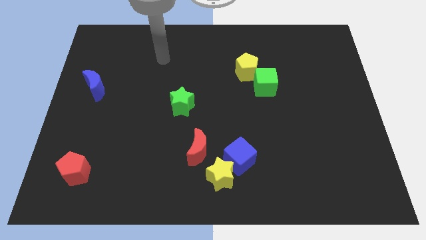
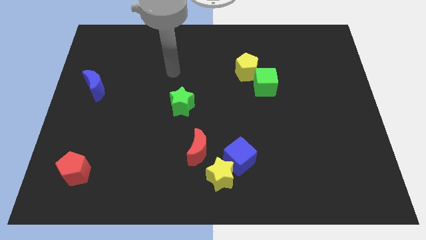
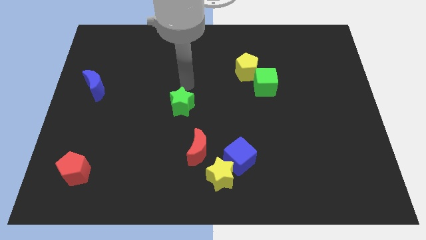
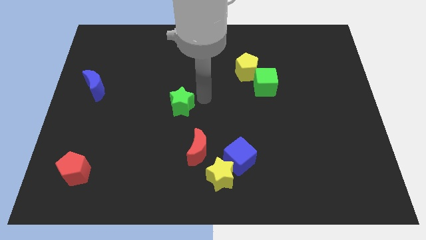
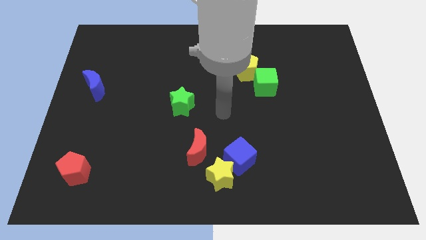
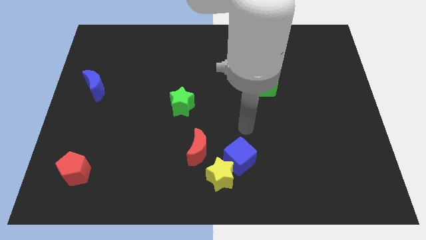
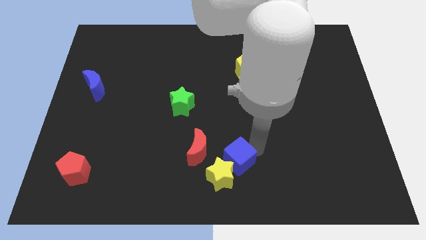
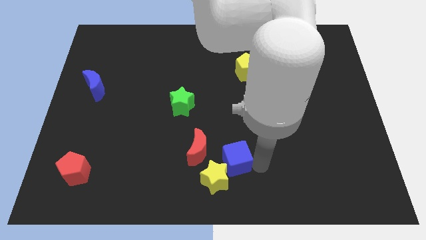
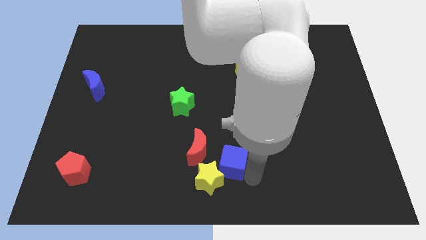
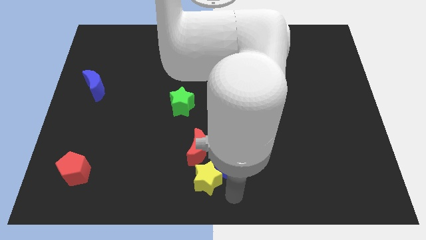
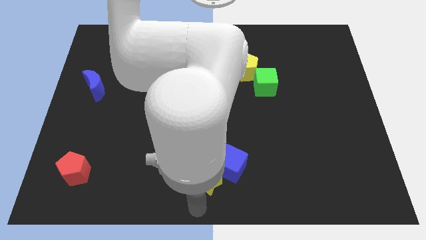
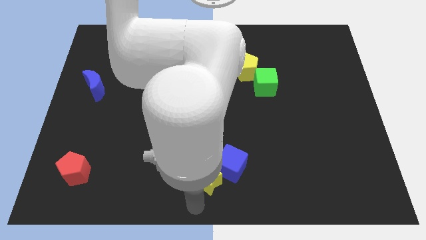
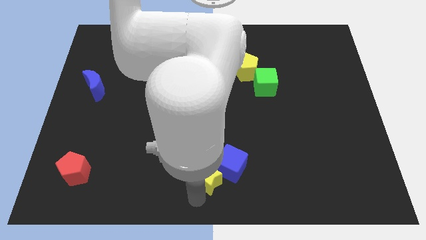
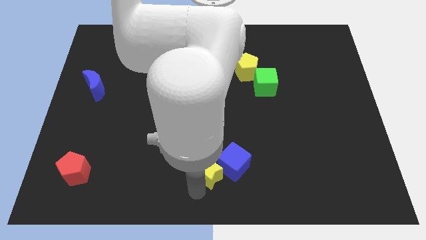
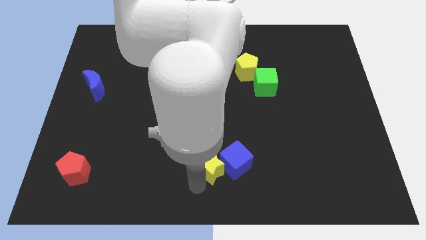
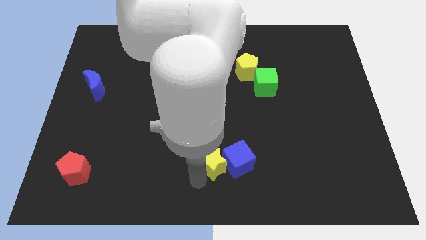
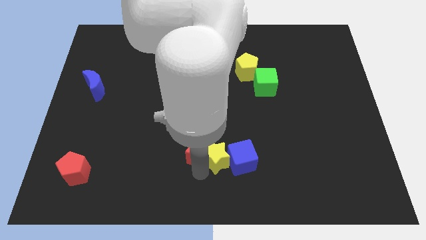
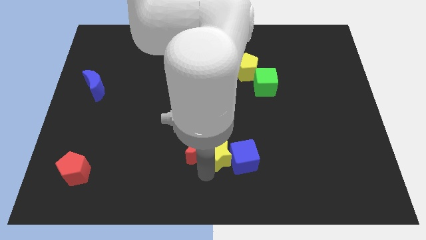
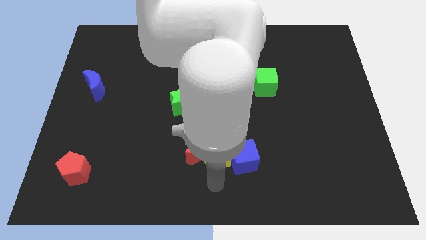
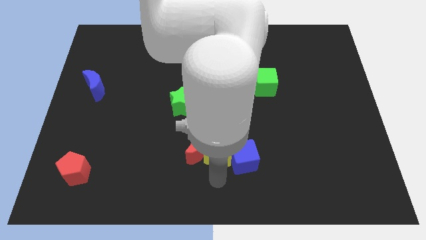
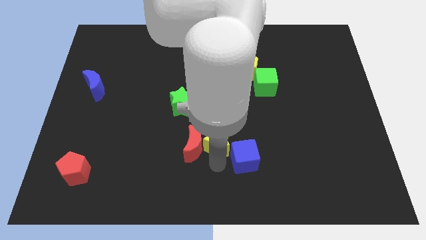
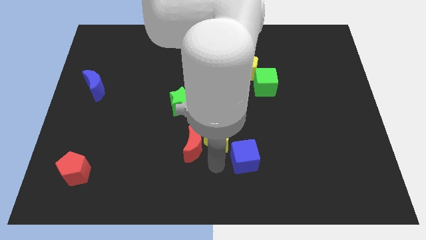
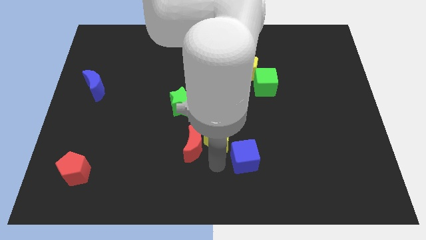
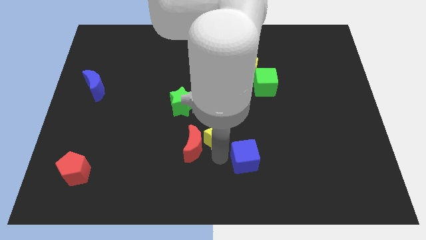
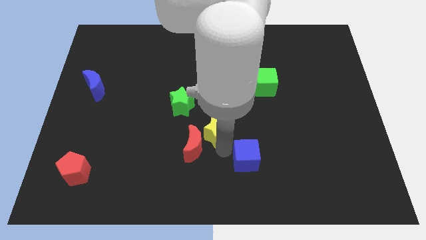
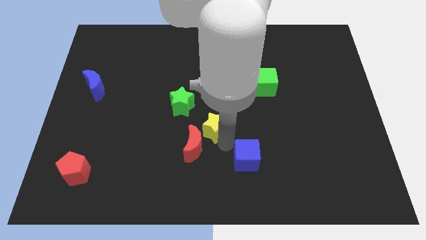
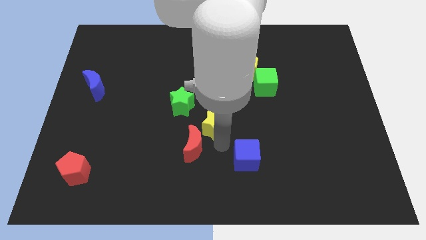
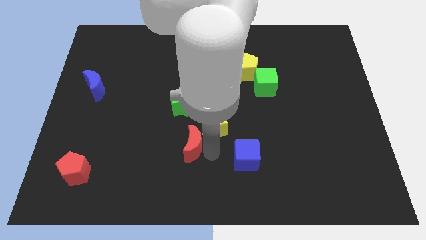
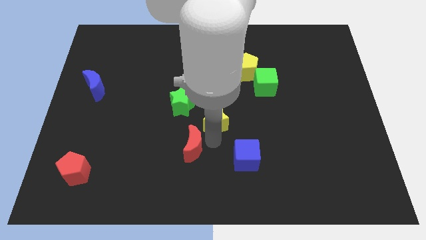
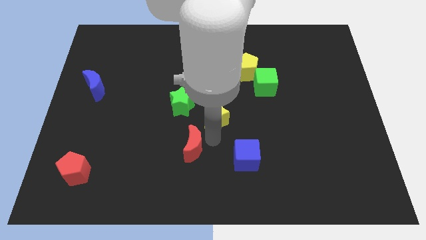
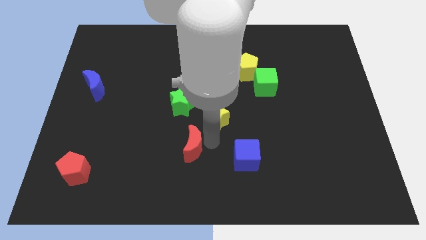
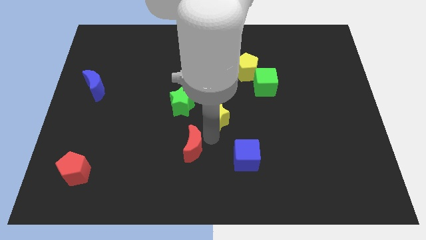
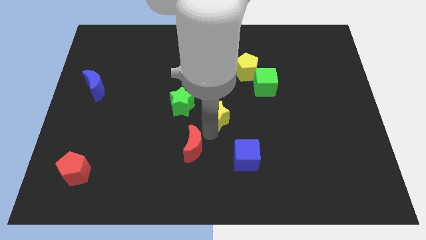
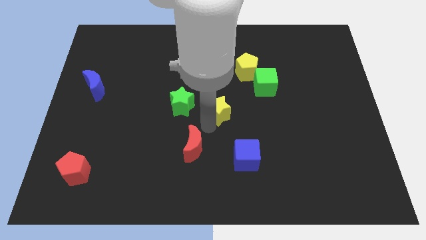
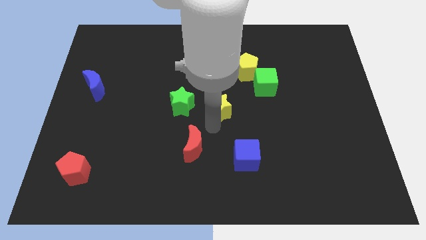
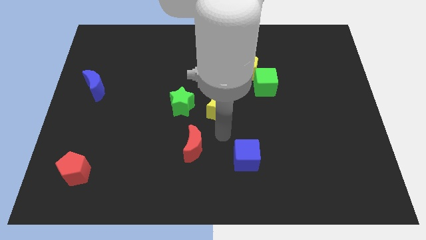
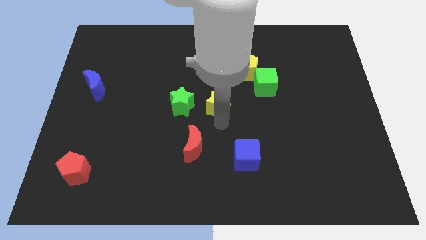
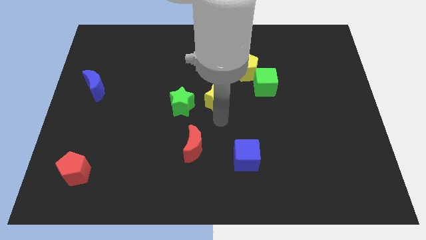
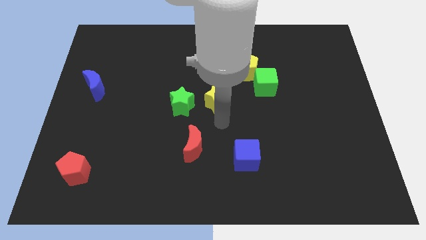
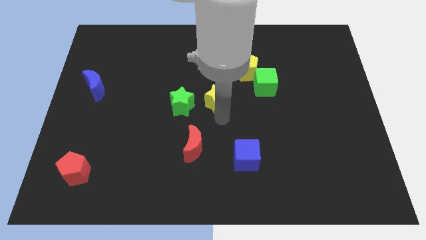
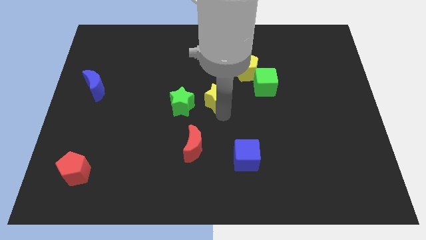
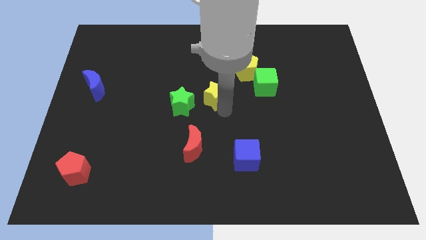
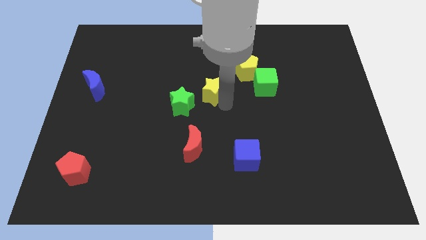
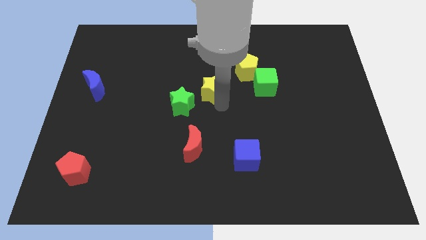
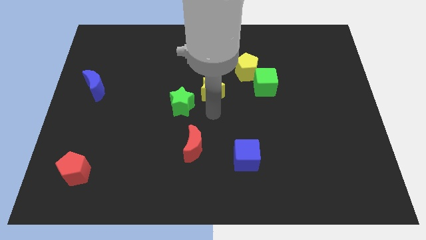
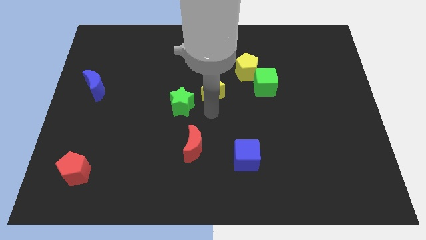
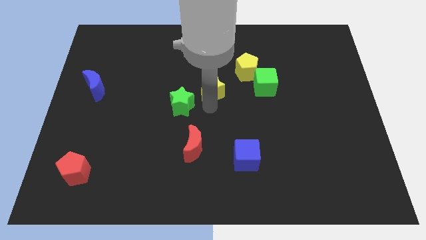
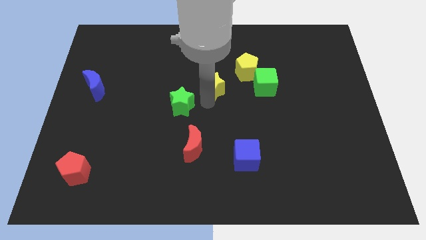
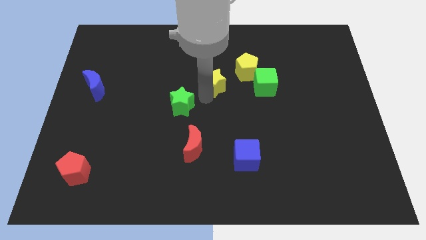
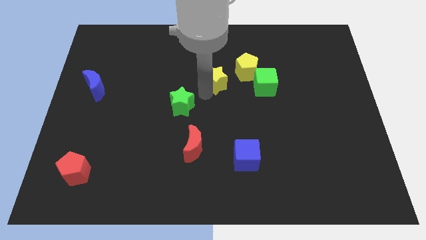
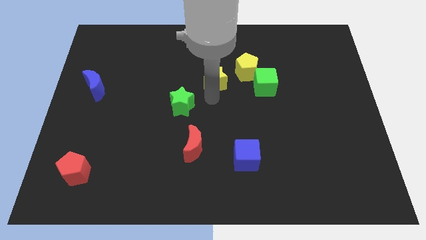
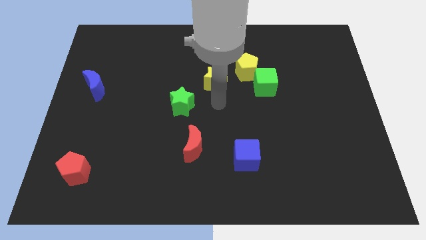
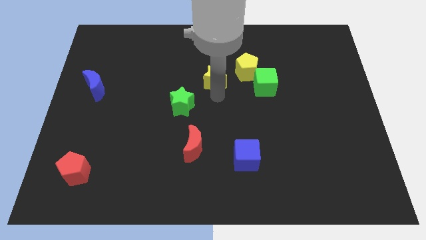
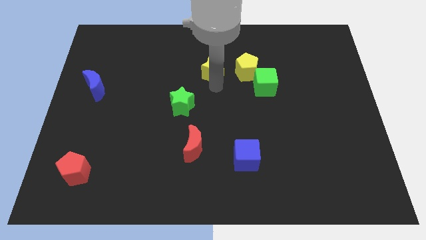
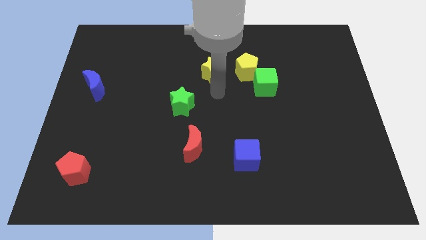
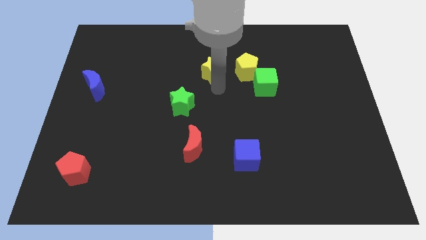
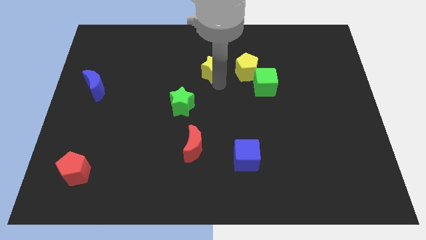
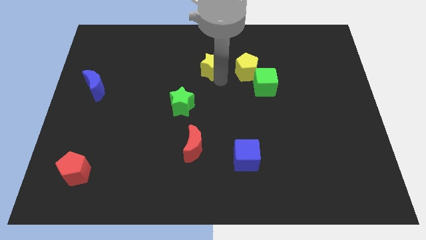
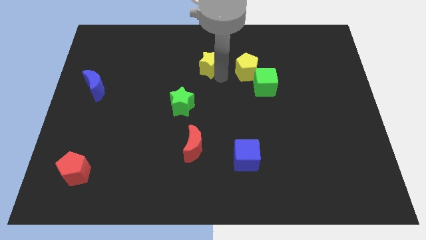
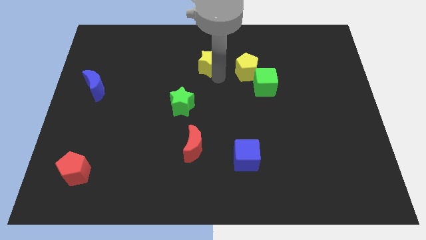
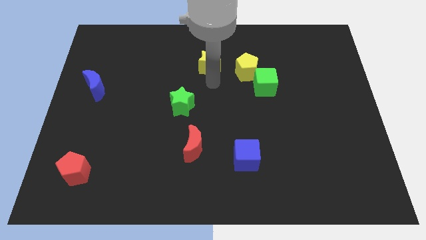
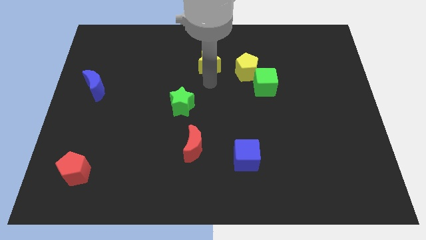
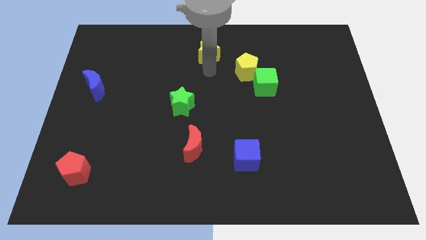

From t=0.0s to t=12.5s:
push the yellow star to the towards your base

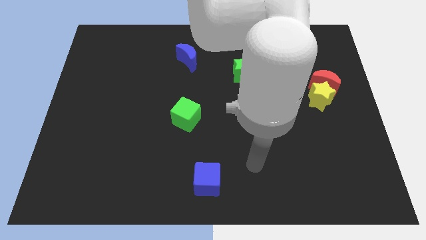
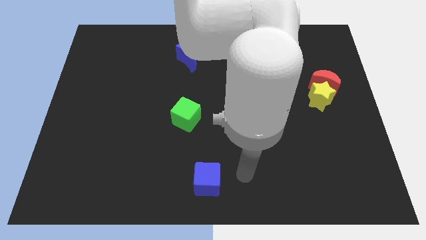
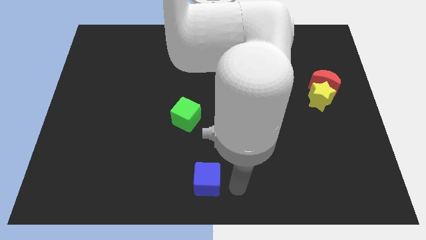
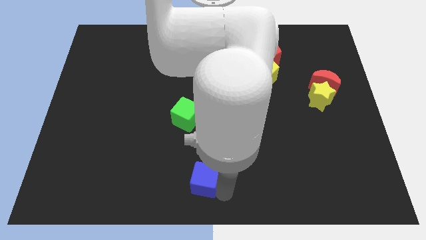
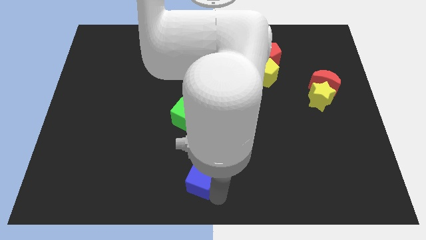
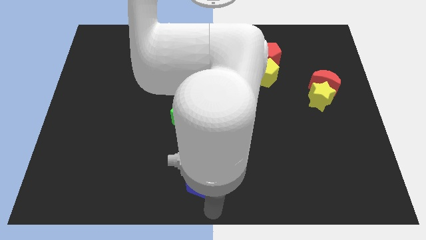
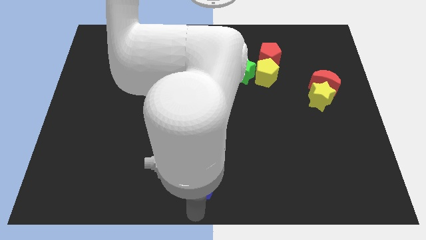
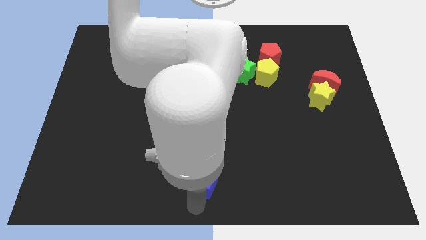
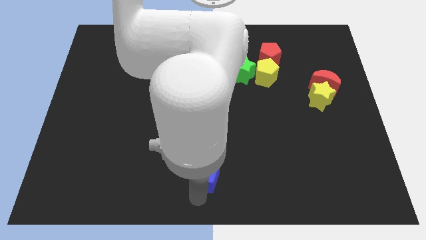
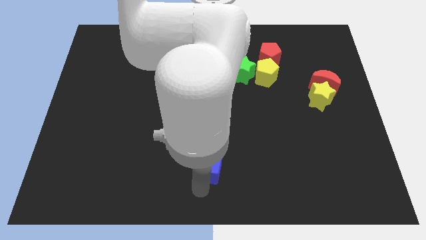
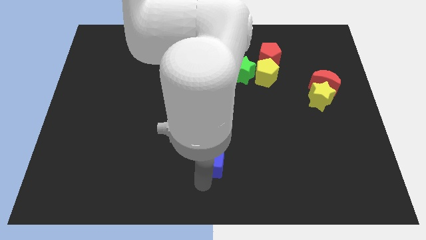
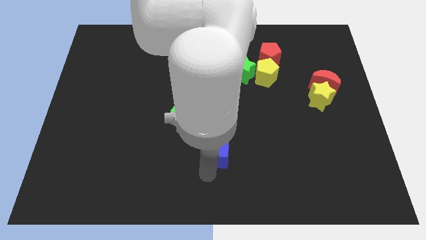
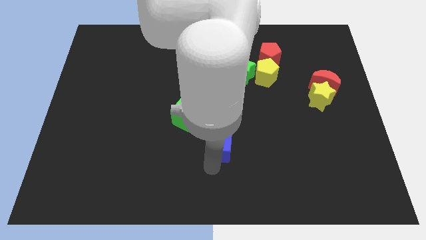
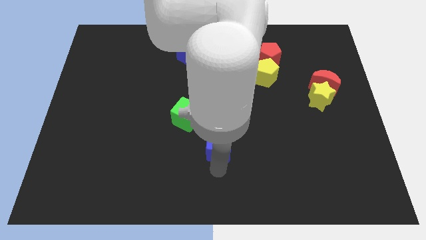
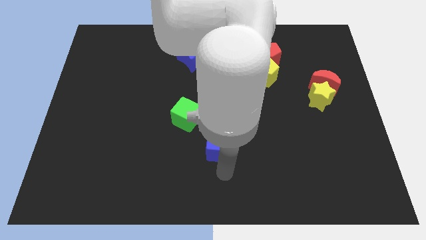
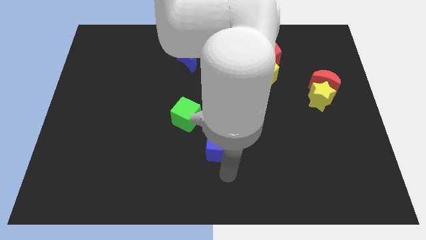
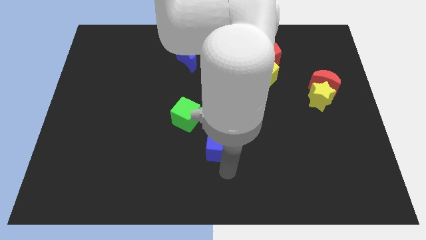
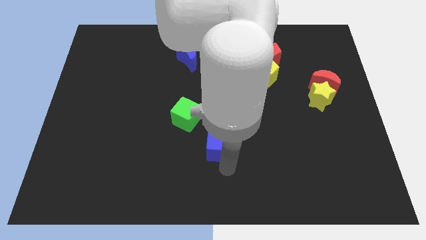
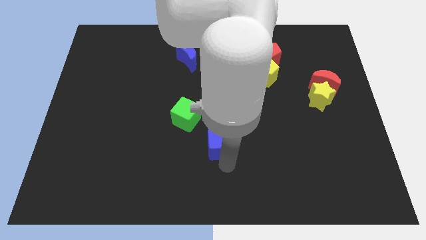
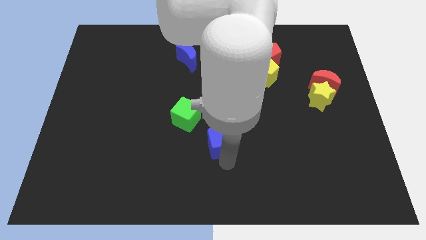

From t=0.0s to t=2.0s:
move the blue cube to the center
